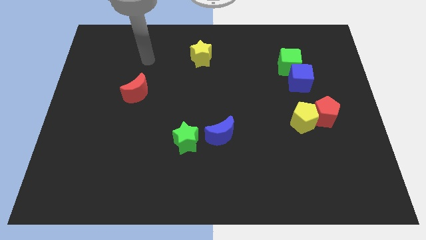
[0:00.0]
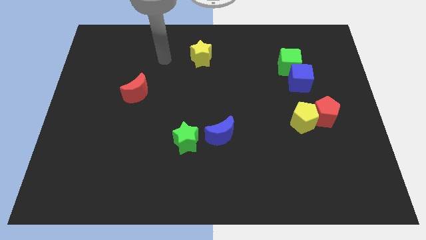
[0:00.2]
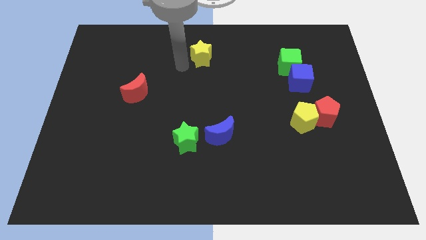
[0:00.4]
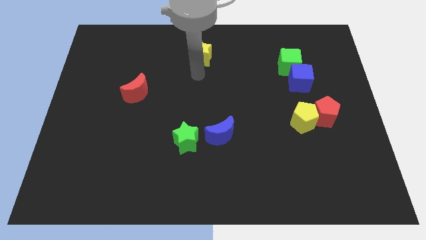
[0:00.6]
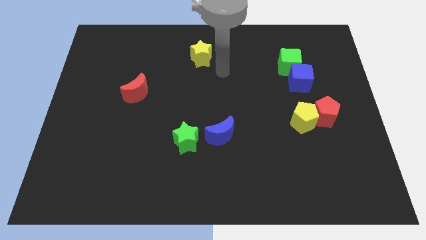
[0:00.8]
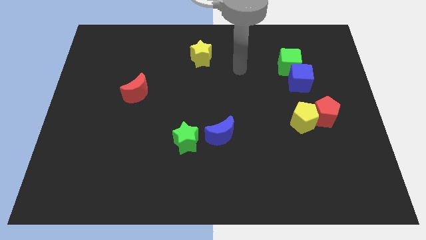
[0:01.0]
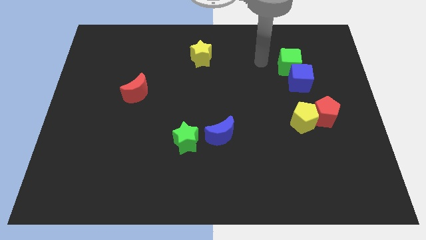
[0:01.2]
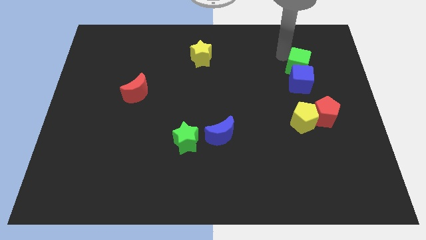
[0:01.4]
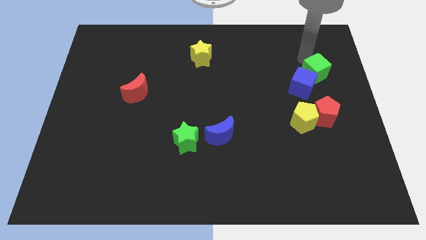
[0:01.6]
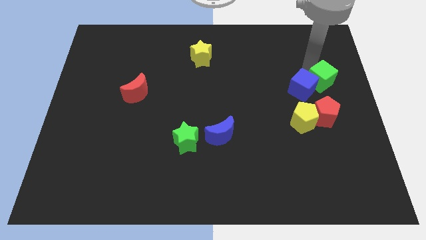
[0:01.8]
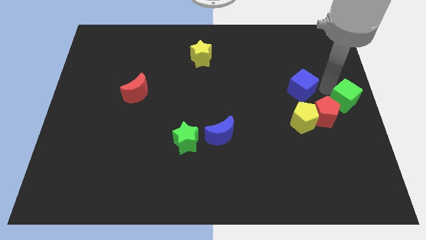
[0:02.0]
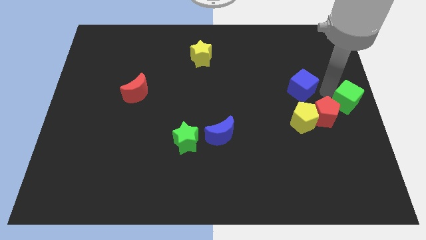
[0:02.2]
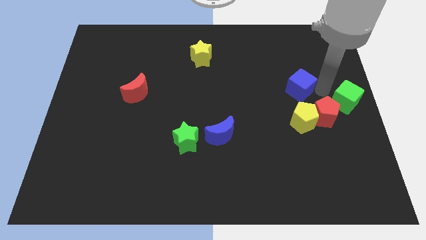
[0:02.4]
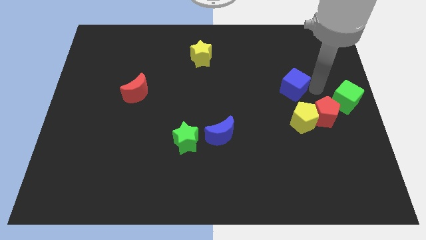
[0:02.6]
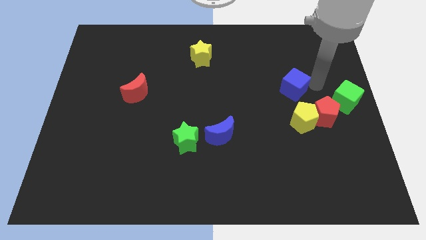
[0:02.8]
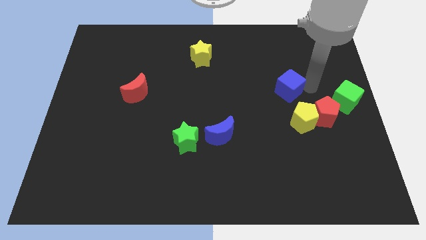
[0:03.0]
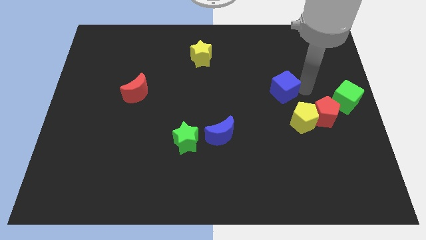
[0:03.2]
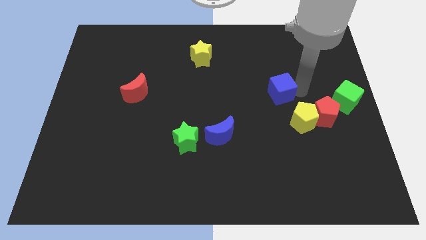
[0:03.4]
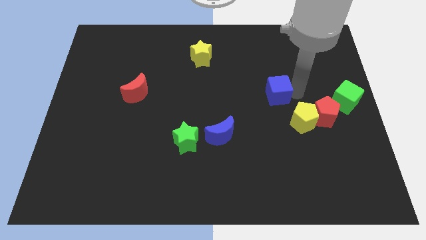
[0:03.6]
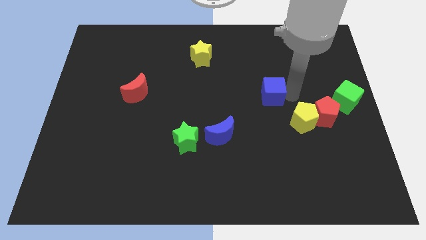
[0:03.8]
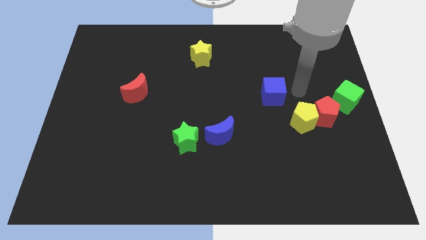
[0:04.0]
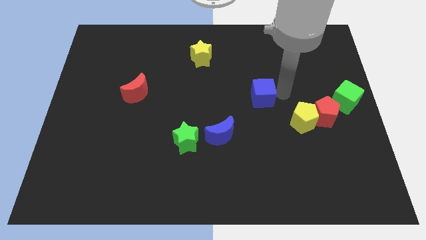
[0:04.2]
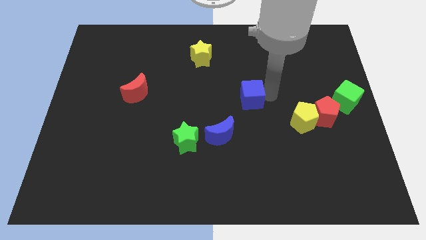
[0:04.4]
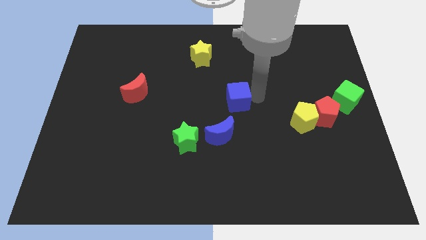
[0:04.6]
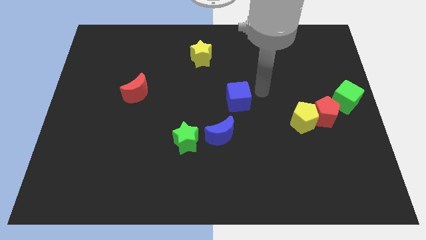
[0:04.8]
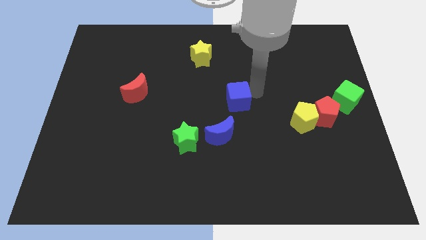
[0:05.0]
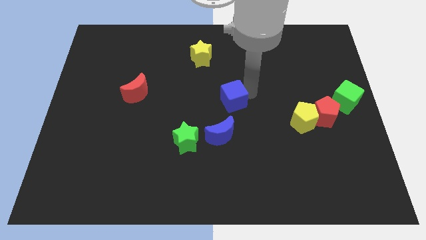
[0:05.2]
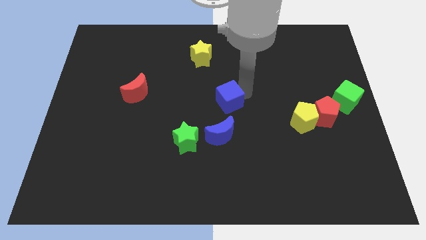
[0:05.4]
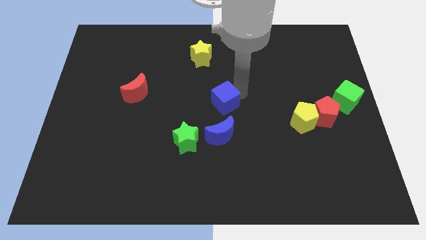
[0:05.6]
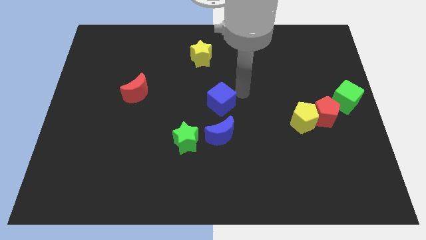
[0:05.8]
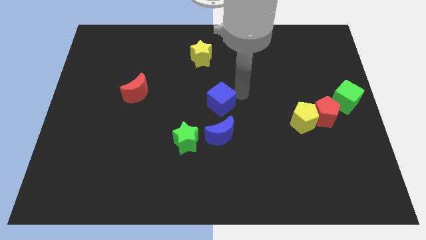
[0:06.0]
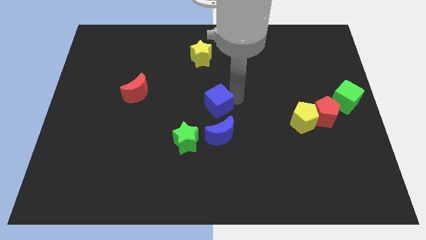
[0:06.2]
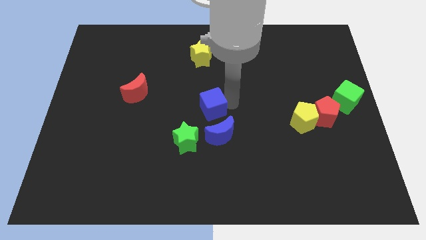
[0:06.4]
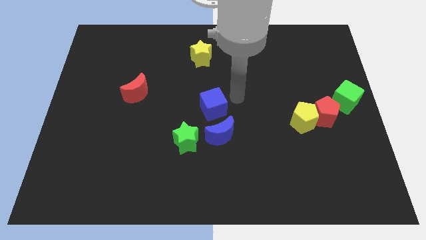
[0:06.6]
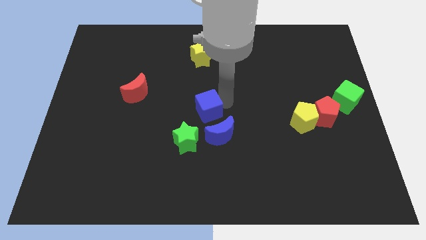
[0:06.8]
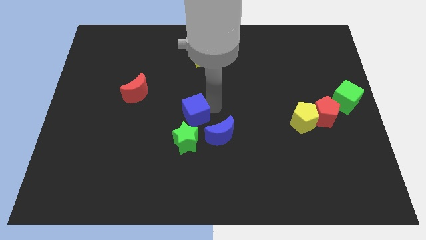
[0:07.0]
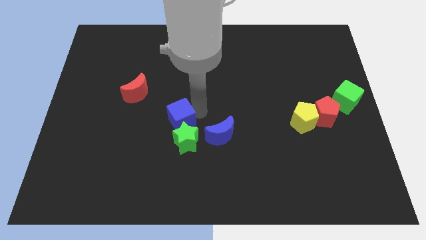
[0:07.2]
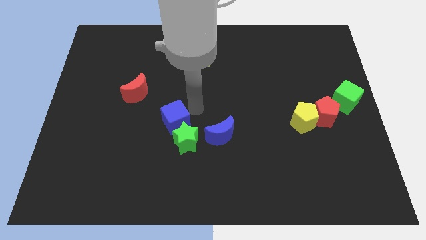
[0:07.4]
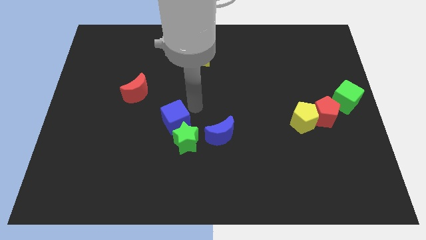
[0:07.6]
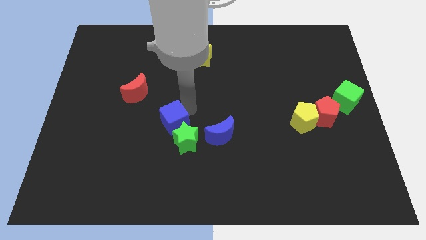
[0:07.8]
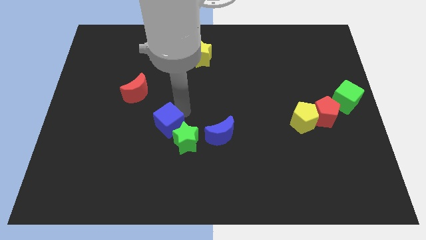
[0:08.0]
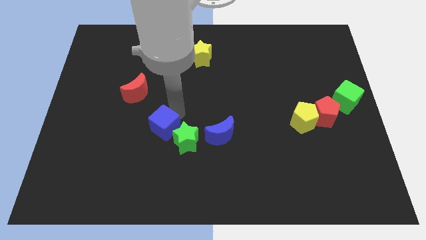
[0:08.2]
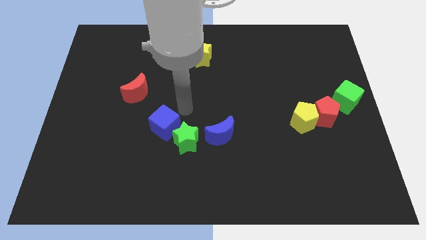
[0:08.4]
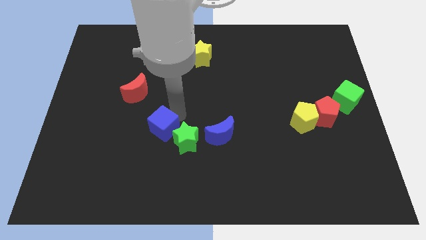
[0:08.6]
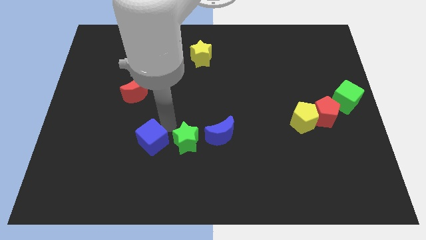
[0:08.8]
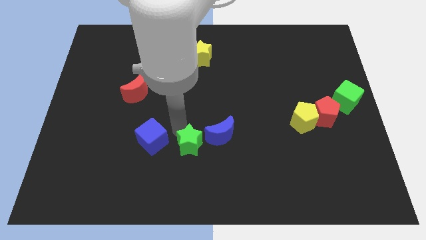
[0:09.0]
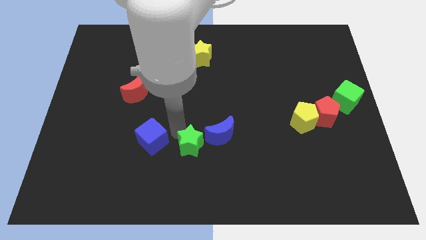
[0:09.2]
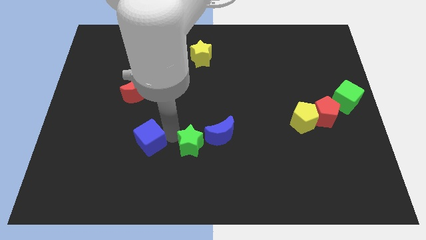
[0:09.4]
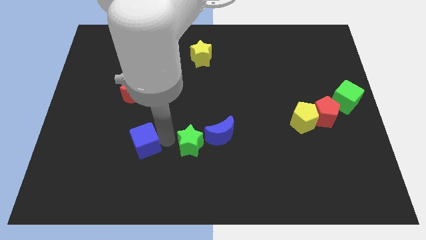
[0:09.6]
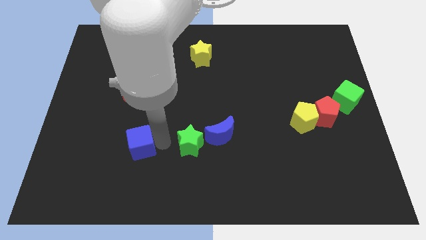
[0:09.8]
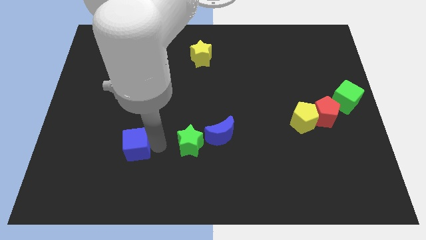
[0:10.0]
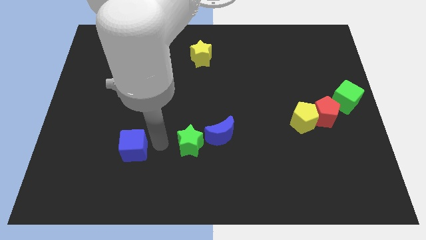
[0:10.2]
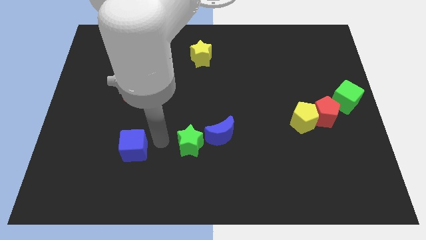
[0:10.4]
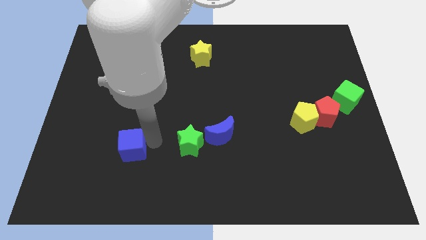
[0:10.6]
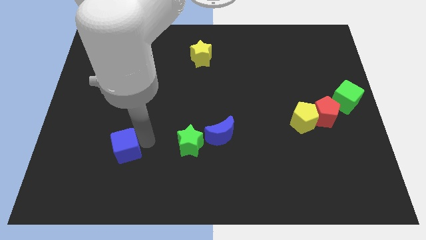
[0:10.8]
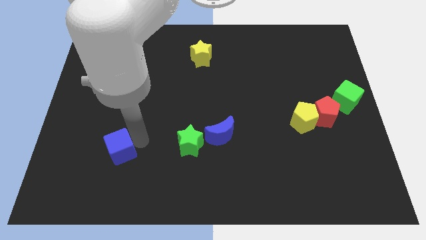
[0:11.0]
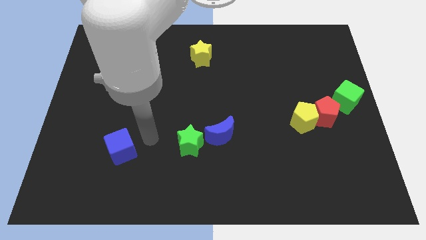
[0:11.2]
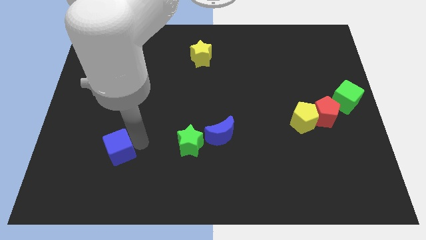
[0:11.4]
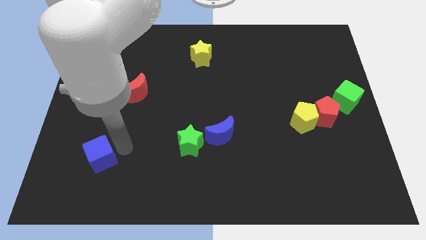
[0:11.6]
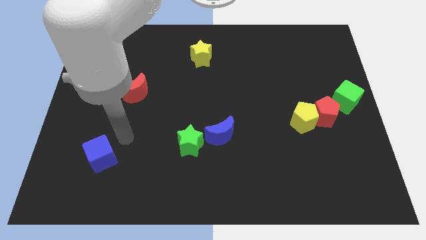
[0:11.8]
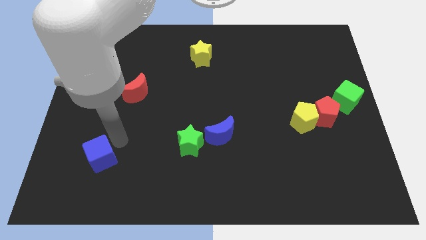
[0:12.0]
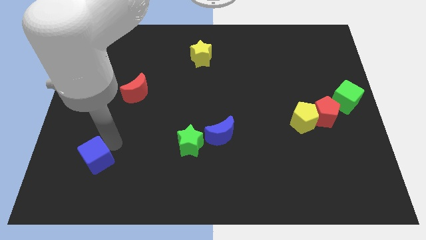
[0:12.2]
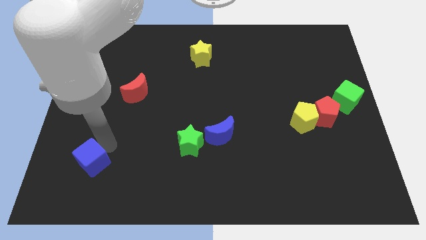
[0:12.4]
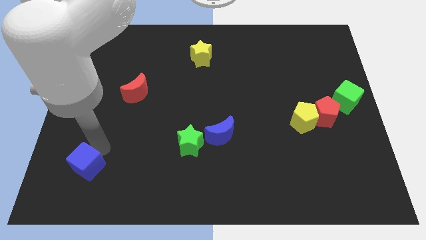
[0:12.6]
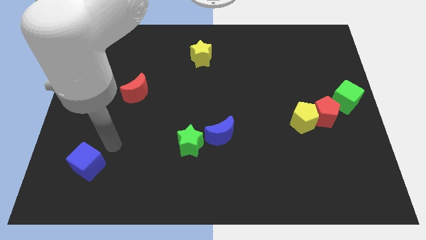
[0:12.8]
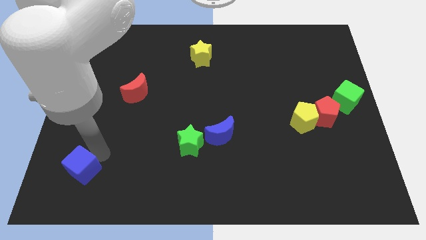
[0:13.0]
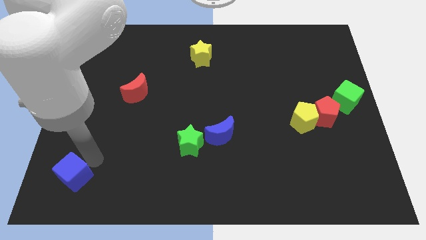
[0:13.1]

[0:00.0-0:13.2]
slide the blue cube to the lower left corner
